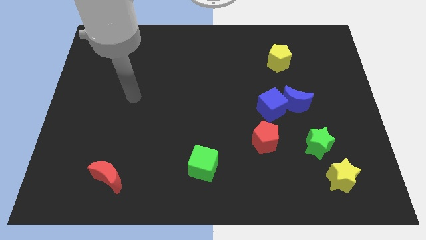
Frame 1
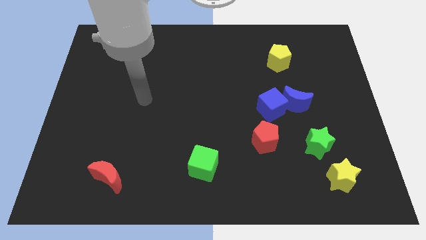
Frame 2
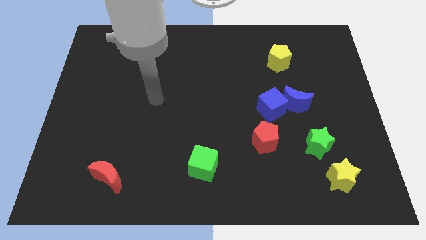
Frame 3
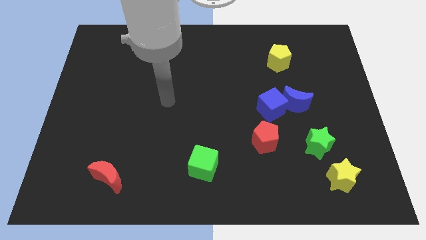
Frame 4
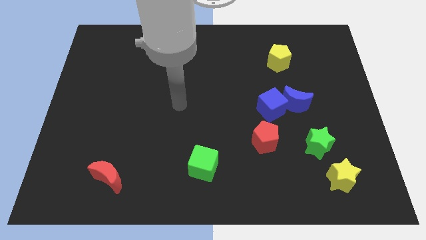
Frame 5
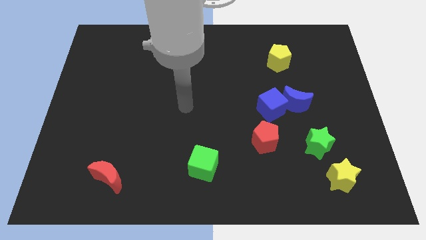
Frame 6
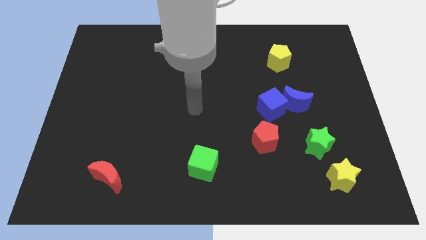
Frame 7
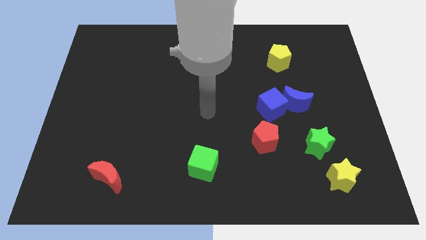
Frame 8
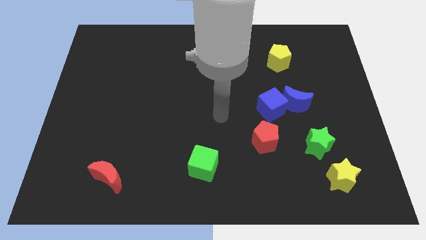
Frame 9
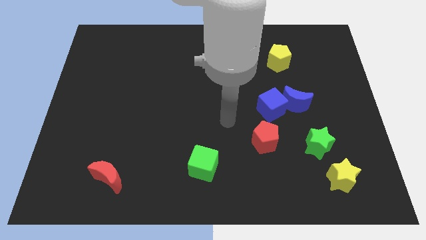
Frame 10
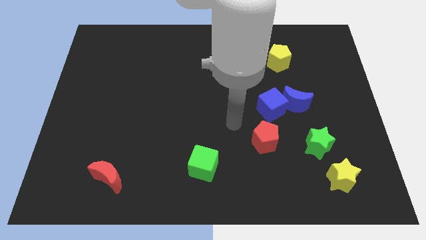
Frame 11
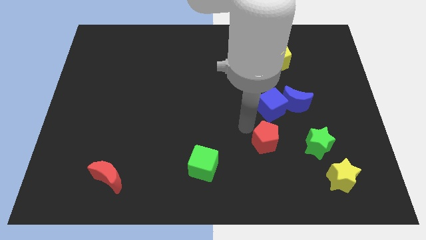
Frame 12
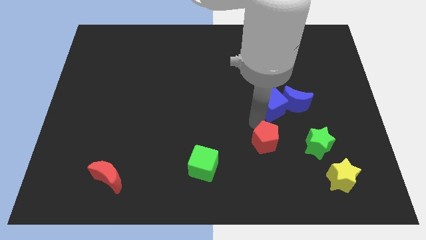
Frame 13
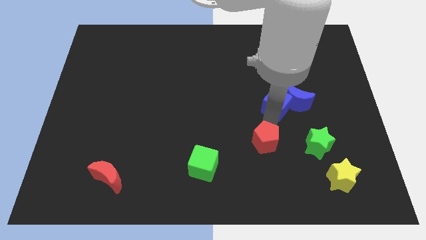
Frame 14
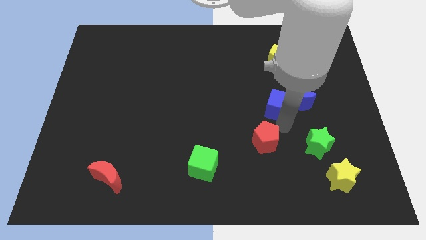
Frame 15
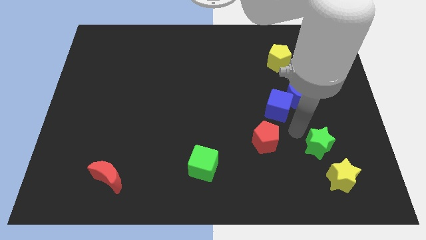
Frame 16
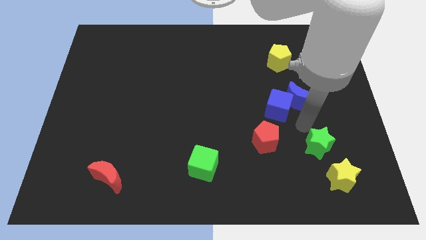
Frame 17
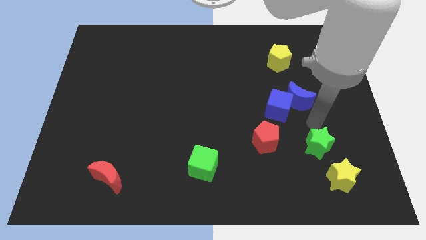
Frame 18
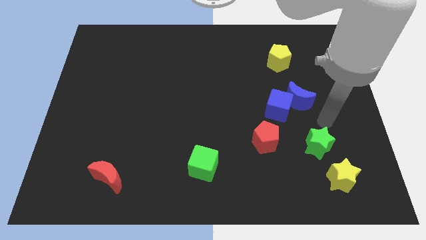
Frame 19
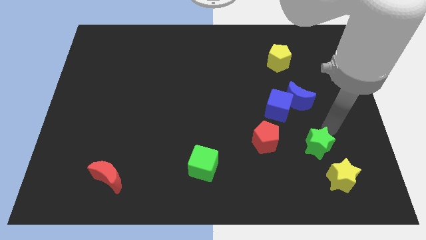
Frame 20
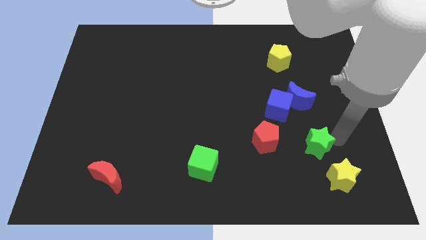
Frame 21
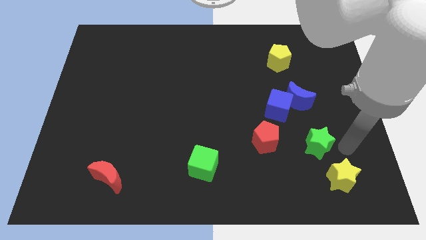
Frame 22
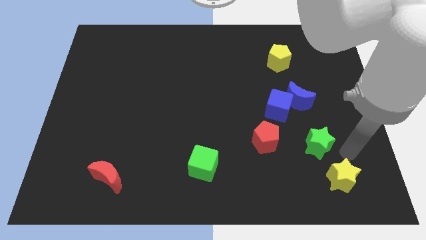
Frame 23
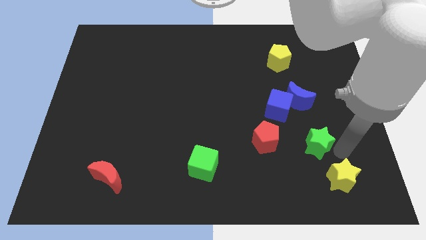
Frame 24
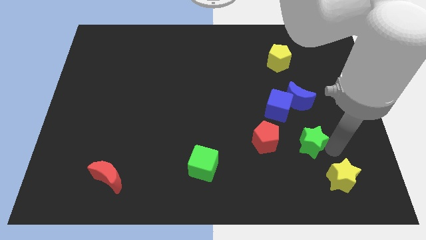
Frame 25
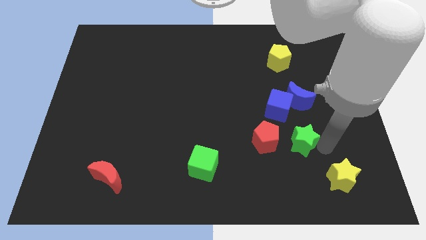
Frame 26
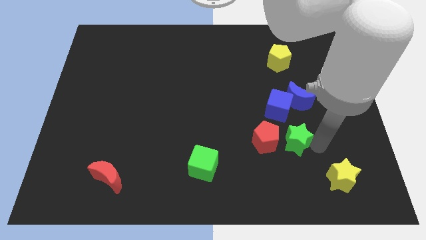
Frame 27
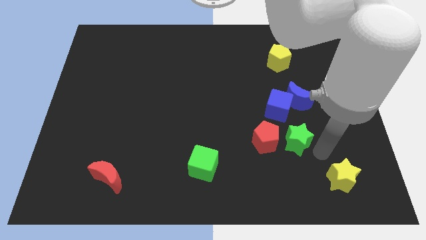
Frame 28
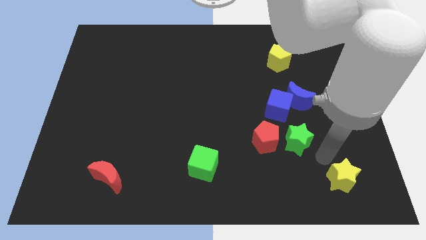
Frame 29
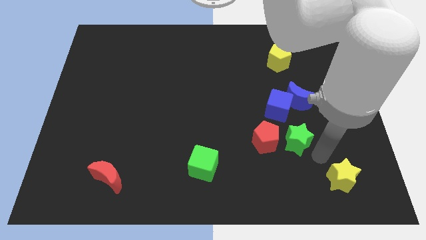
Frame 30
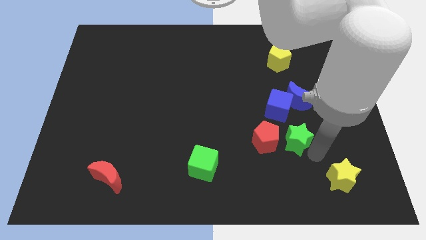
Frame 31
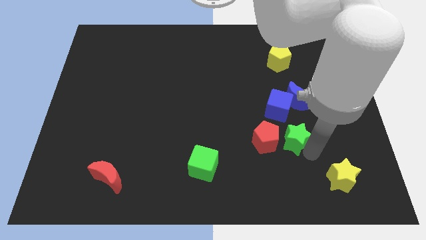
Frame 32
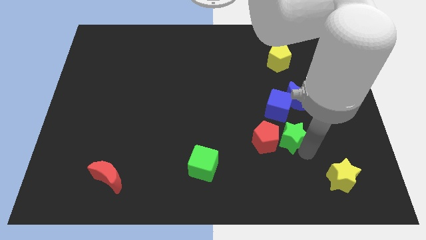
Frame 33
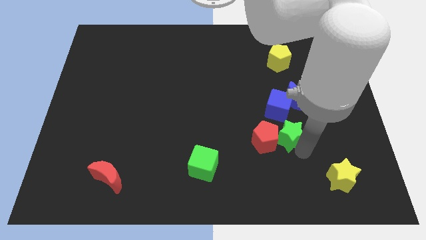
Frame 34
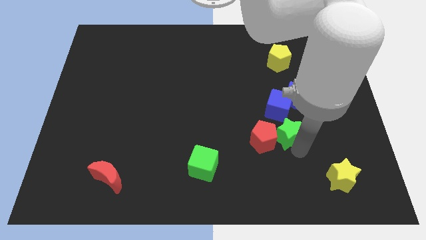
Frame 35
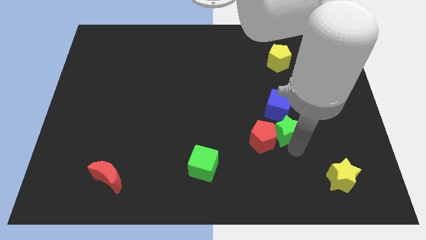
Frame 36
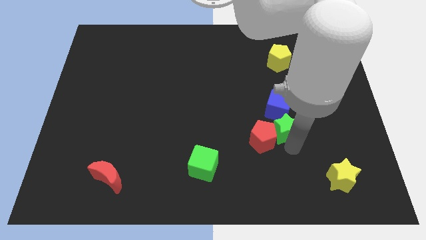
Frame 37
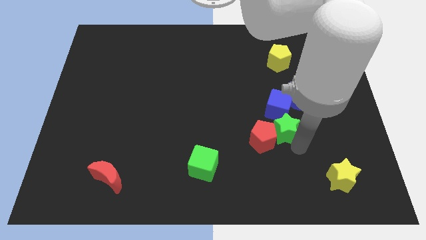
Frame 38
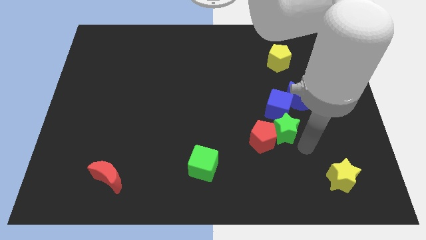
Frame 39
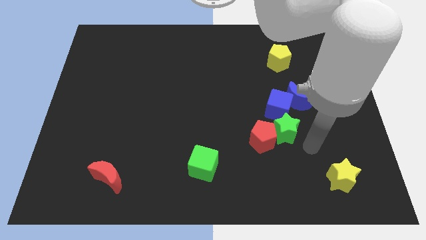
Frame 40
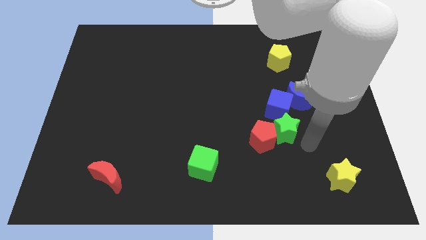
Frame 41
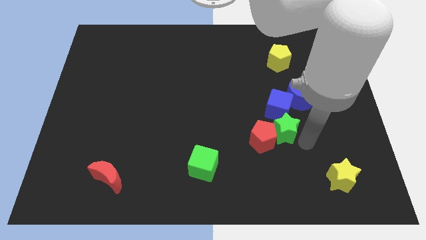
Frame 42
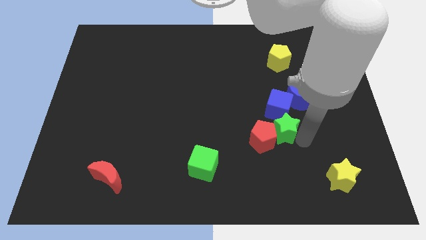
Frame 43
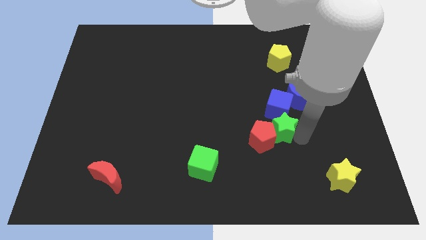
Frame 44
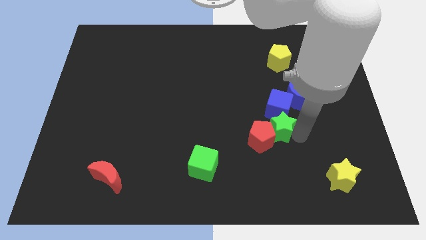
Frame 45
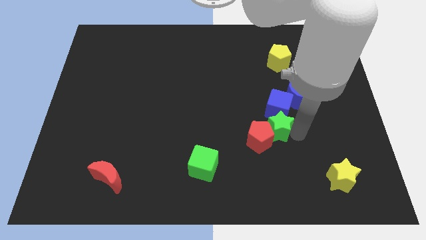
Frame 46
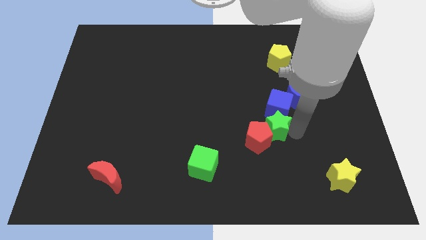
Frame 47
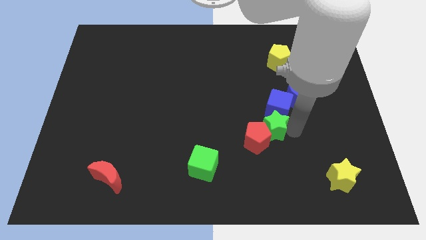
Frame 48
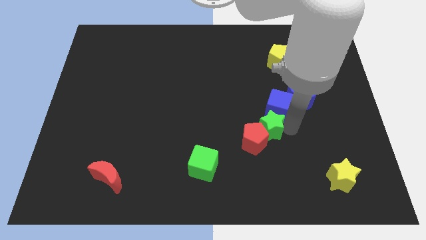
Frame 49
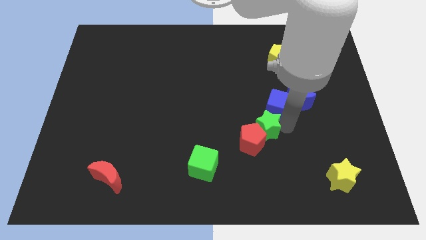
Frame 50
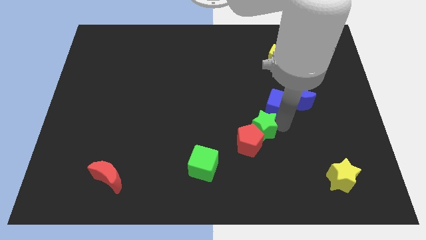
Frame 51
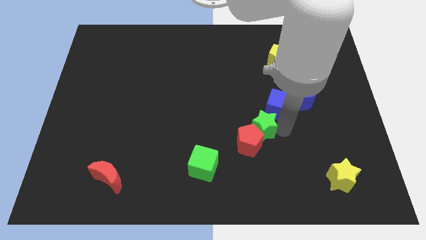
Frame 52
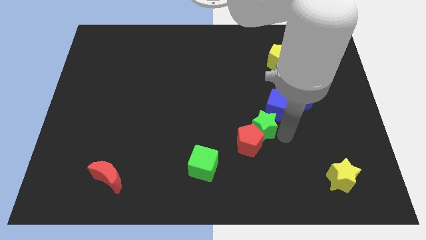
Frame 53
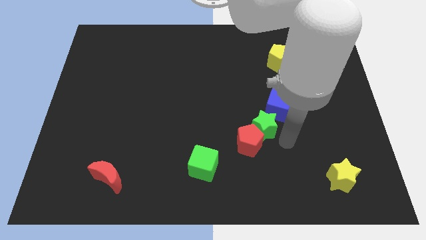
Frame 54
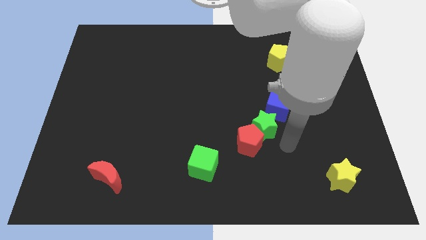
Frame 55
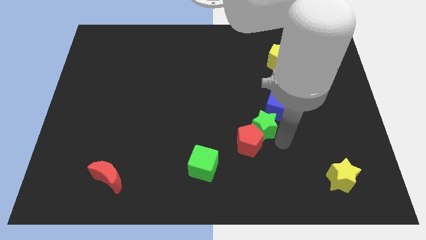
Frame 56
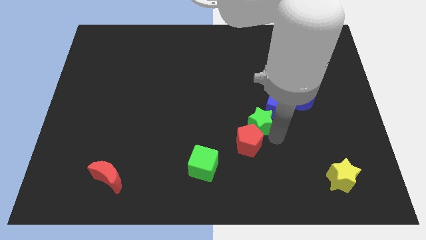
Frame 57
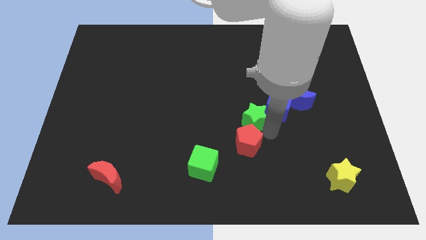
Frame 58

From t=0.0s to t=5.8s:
move the green star to the center of the board
